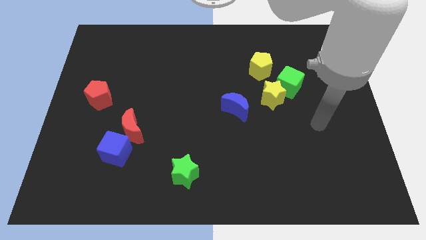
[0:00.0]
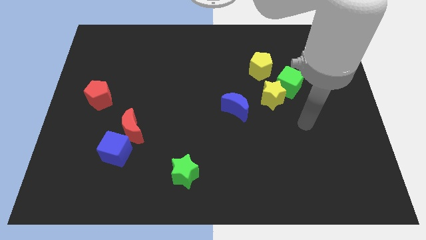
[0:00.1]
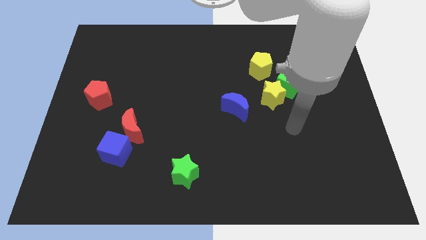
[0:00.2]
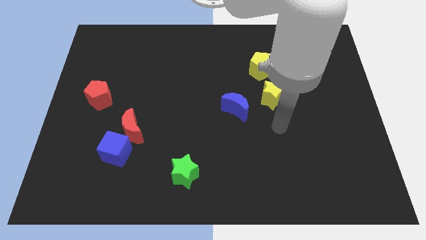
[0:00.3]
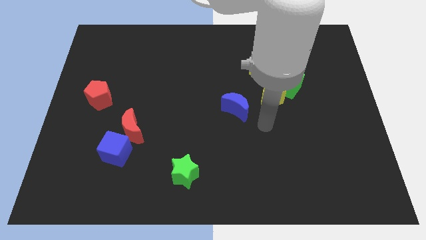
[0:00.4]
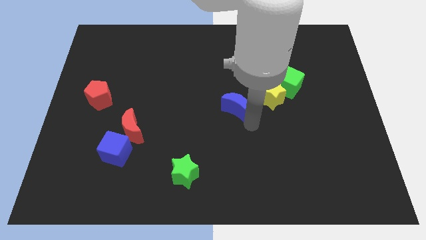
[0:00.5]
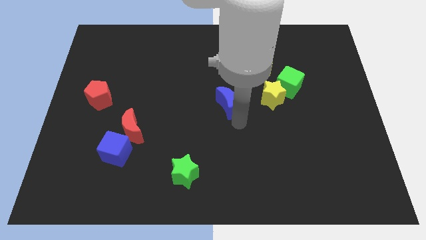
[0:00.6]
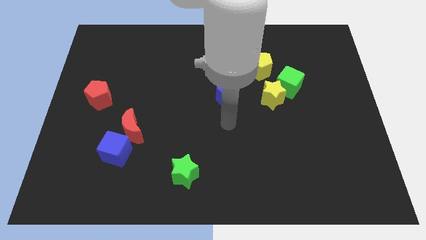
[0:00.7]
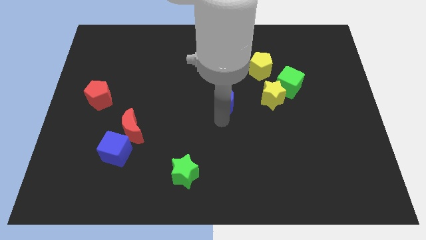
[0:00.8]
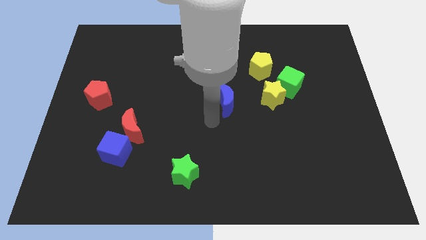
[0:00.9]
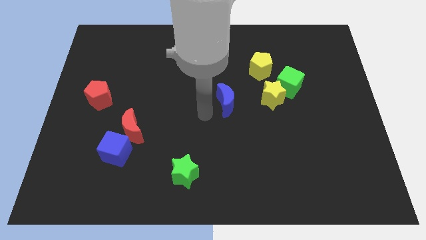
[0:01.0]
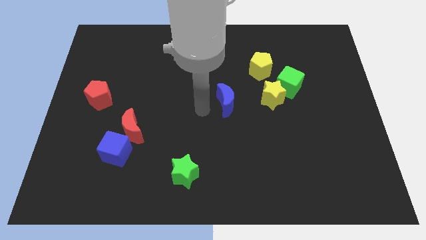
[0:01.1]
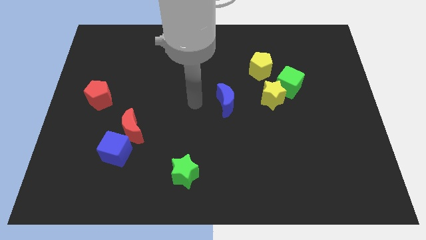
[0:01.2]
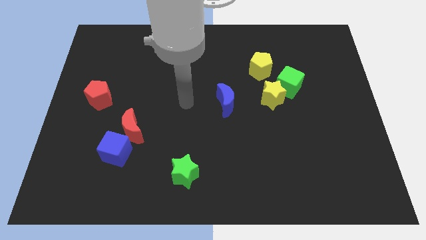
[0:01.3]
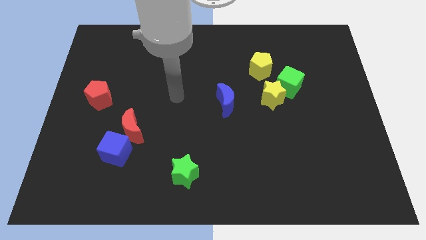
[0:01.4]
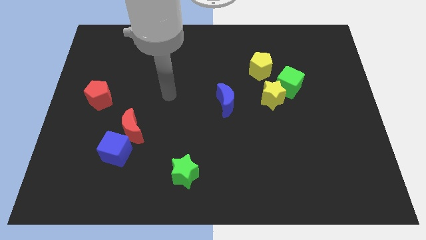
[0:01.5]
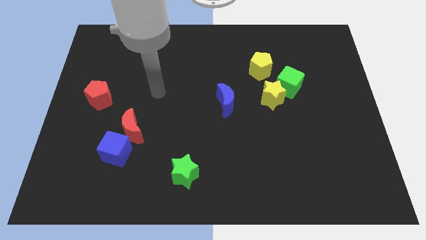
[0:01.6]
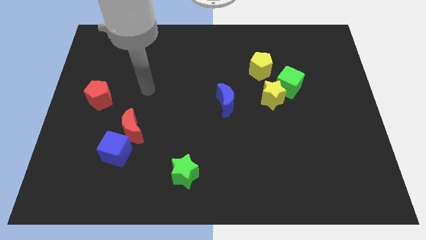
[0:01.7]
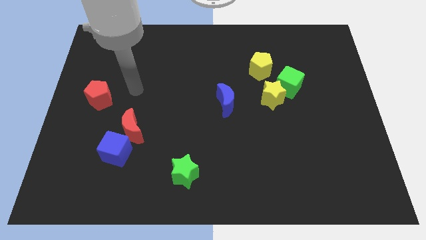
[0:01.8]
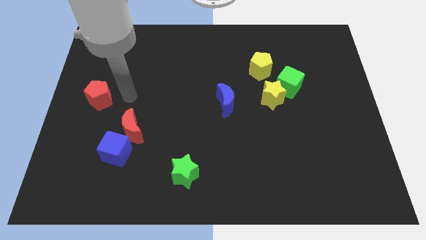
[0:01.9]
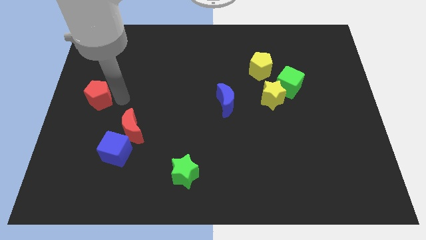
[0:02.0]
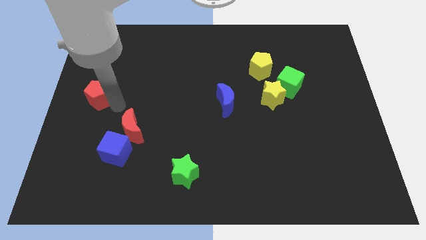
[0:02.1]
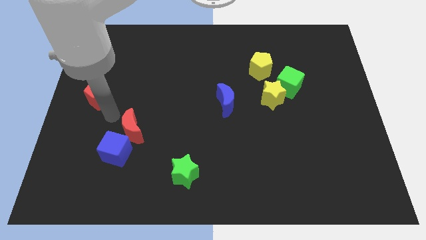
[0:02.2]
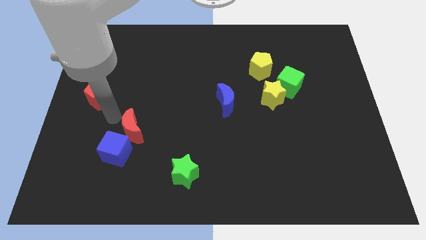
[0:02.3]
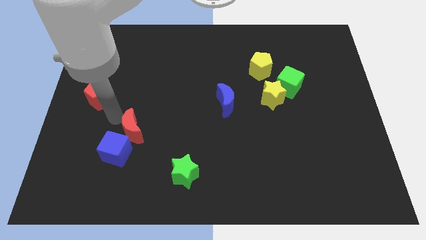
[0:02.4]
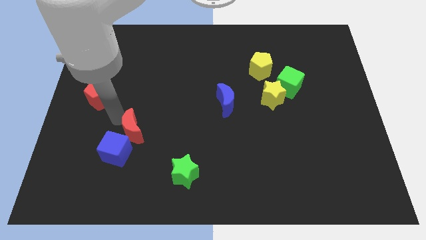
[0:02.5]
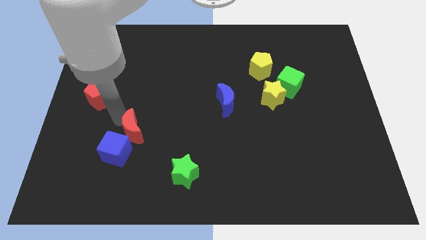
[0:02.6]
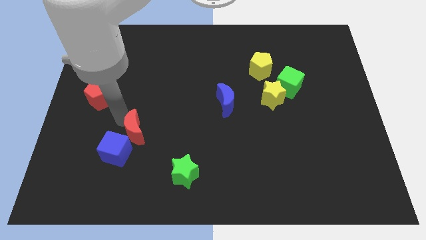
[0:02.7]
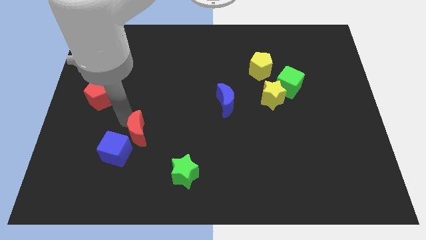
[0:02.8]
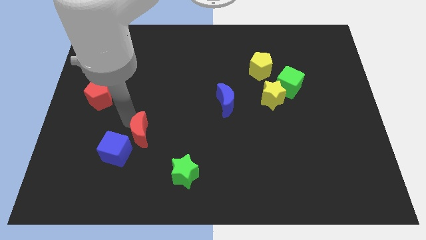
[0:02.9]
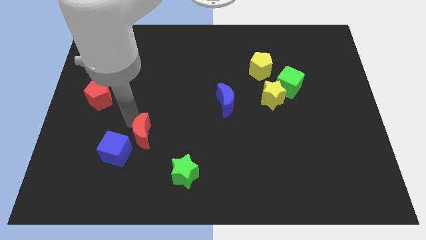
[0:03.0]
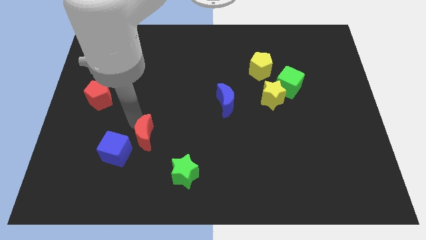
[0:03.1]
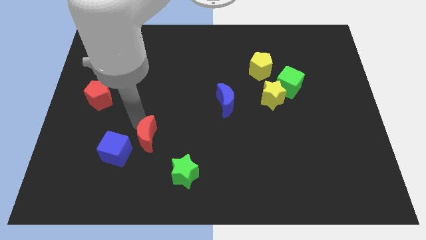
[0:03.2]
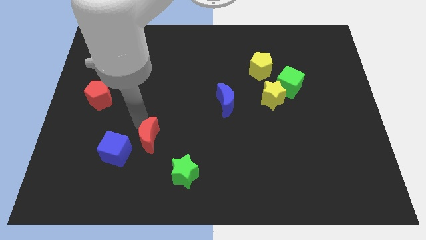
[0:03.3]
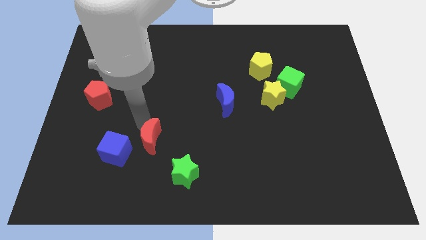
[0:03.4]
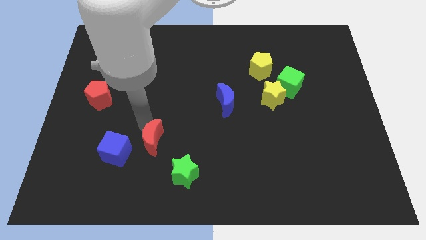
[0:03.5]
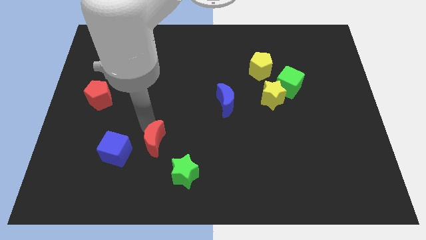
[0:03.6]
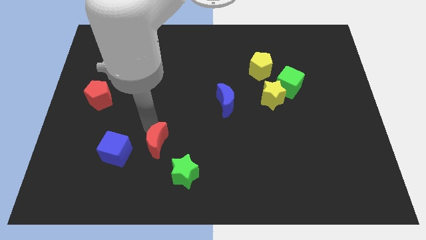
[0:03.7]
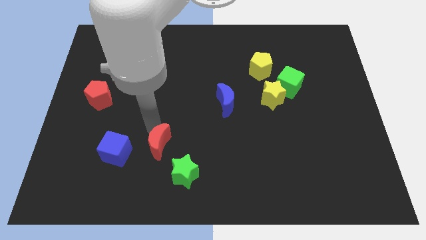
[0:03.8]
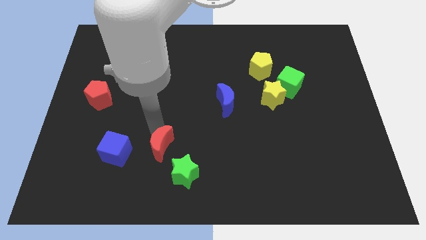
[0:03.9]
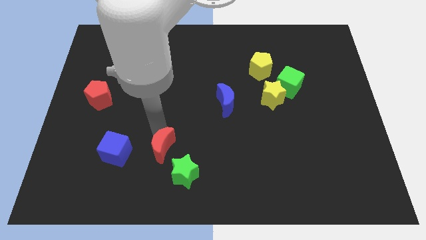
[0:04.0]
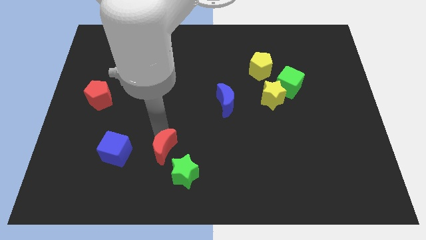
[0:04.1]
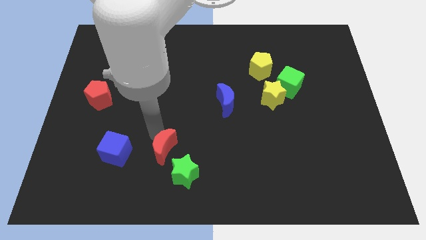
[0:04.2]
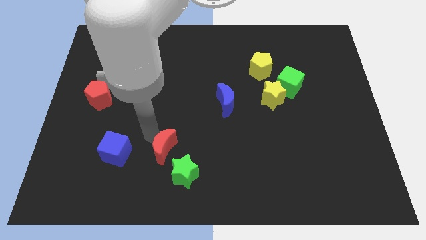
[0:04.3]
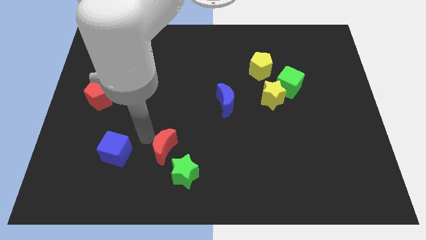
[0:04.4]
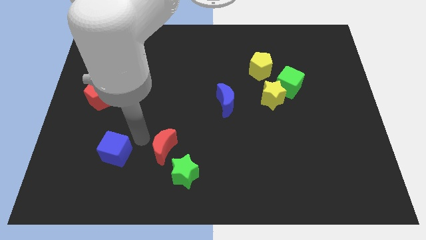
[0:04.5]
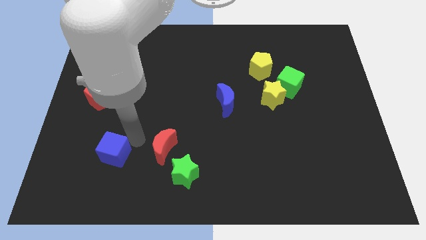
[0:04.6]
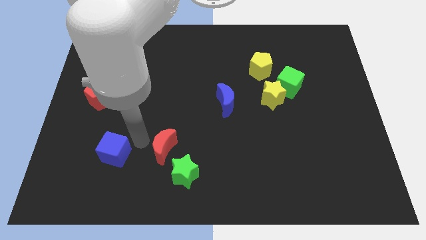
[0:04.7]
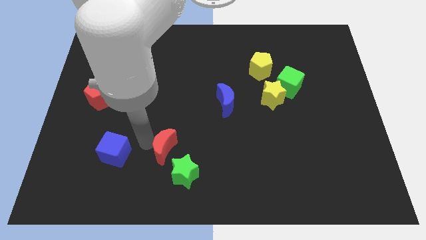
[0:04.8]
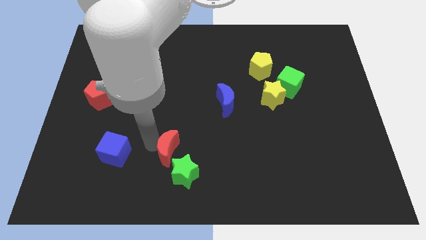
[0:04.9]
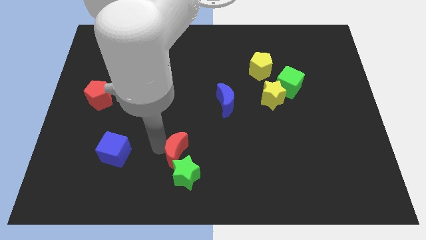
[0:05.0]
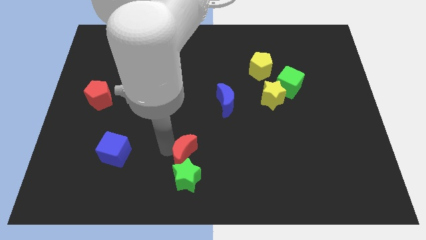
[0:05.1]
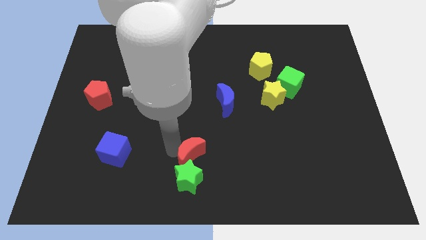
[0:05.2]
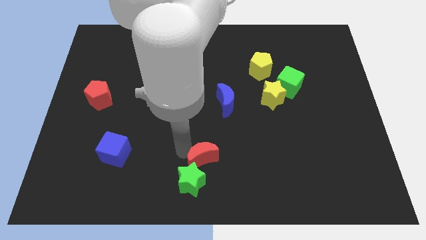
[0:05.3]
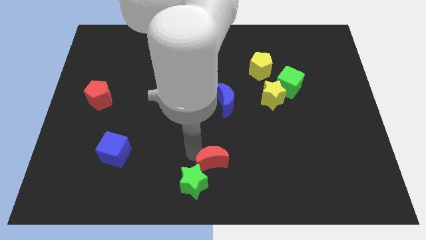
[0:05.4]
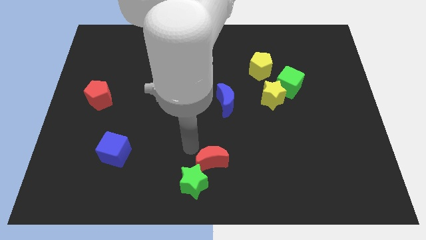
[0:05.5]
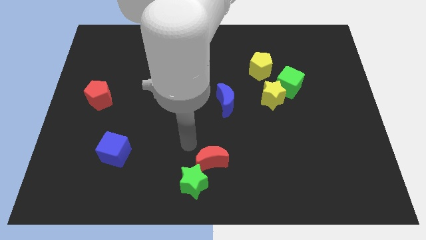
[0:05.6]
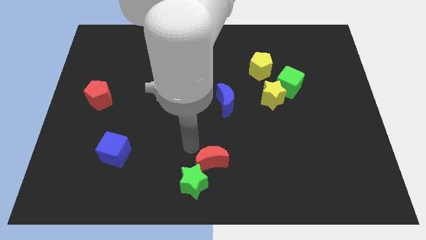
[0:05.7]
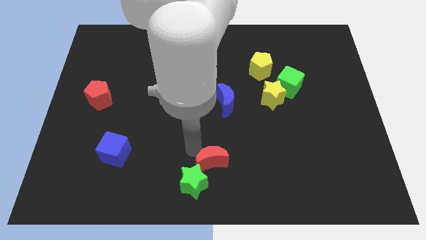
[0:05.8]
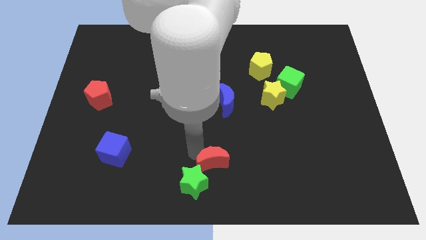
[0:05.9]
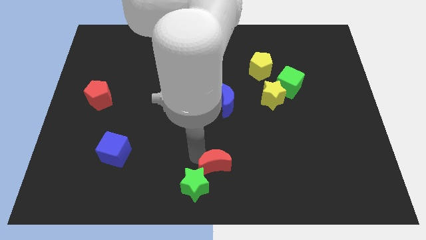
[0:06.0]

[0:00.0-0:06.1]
slide the red moon just right of the green star
